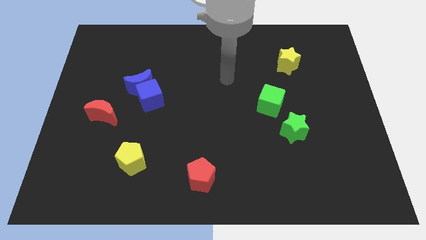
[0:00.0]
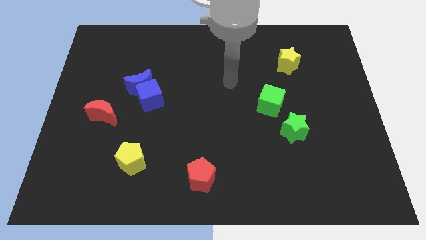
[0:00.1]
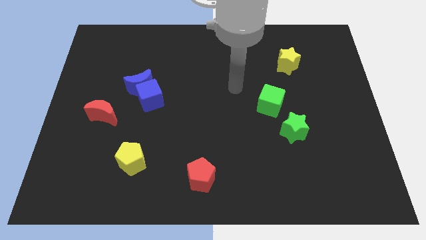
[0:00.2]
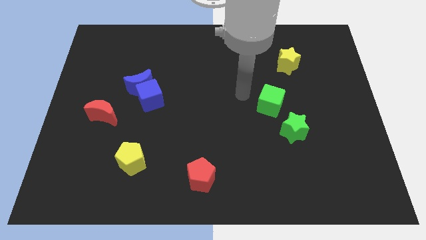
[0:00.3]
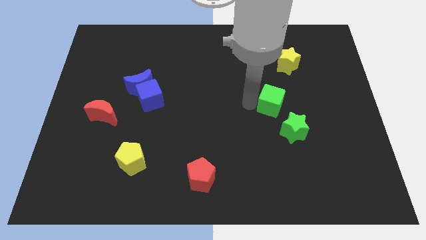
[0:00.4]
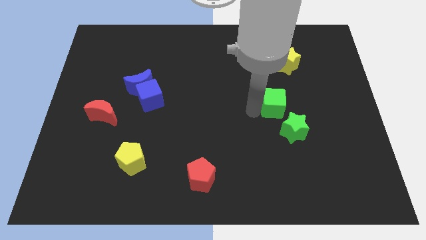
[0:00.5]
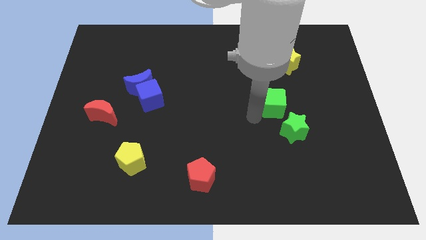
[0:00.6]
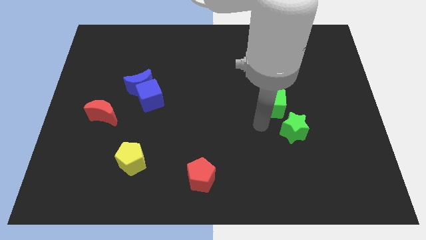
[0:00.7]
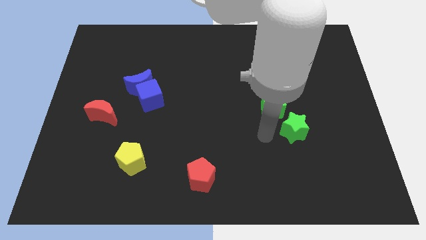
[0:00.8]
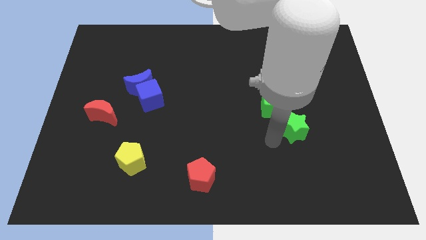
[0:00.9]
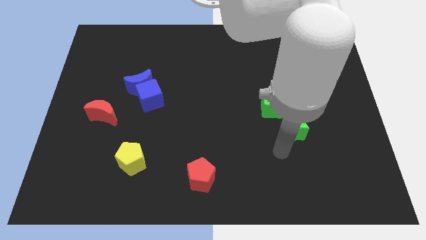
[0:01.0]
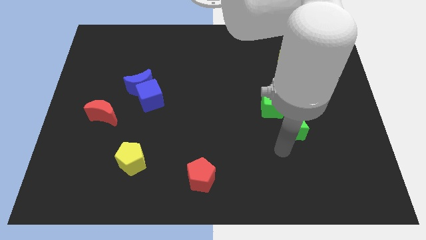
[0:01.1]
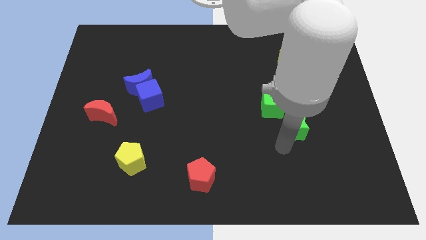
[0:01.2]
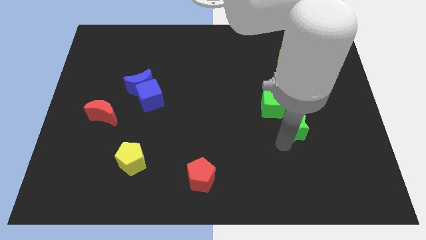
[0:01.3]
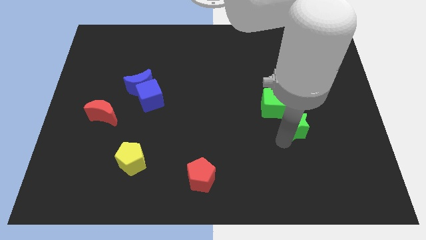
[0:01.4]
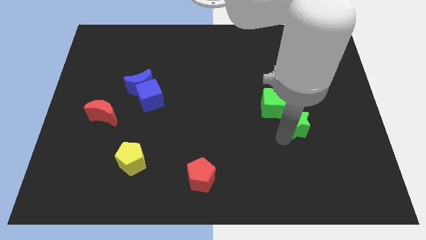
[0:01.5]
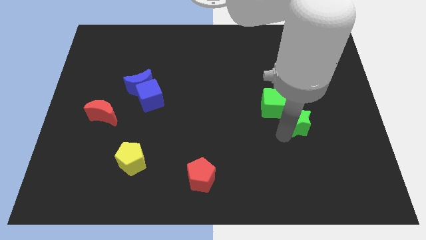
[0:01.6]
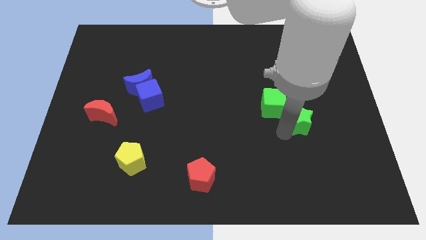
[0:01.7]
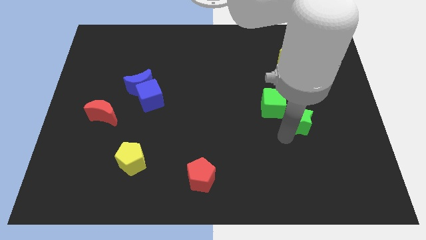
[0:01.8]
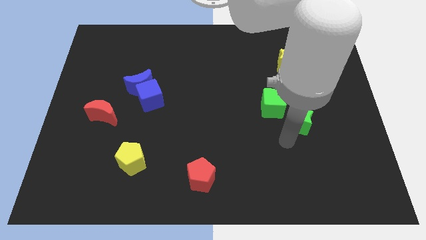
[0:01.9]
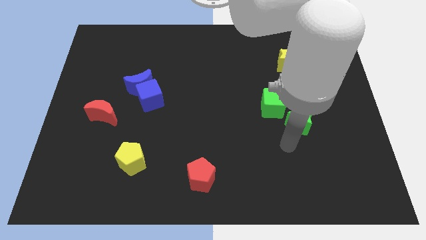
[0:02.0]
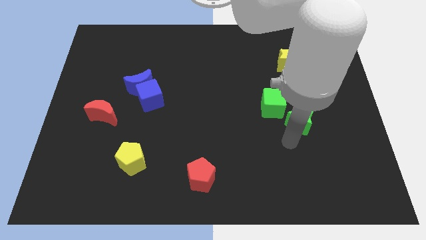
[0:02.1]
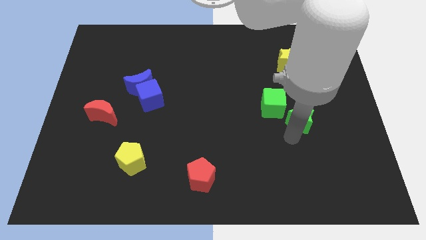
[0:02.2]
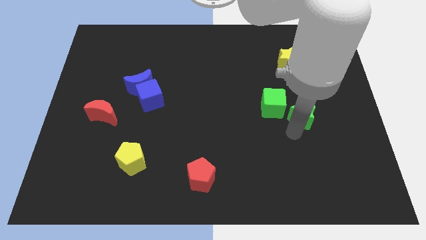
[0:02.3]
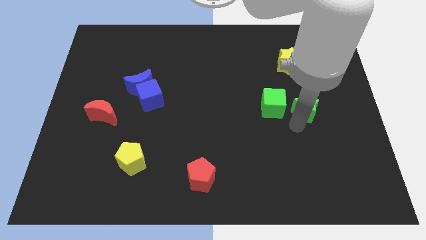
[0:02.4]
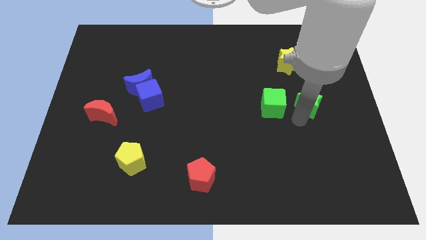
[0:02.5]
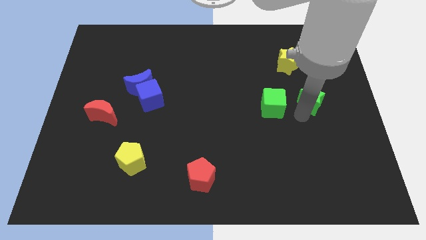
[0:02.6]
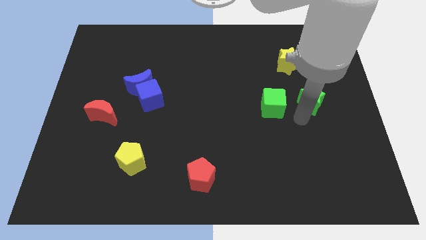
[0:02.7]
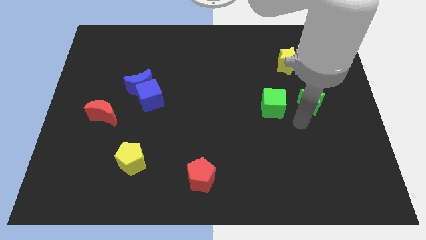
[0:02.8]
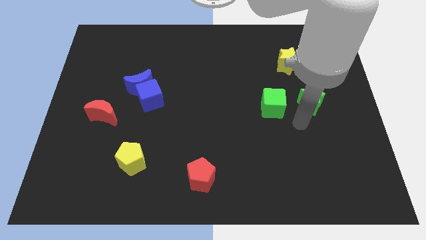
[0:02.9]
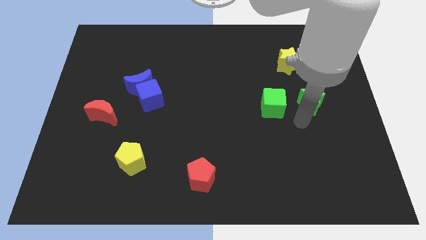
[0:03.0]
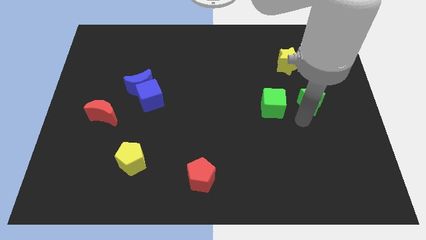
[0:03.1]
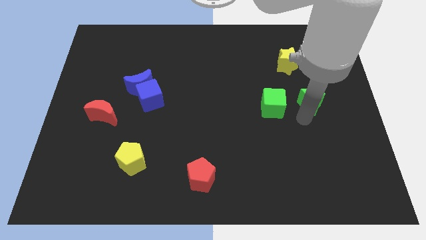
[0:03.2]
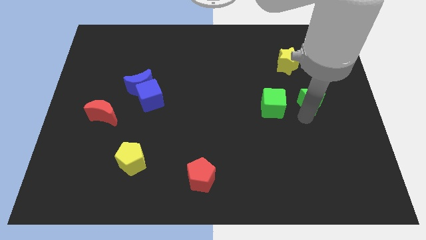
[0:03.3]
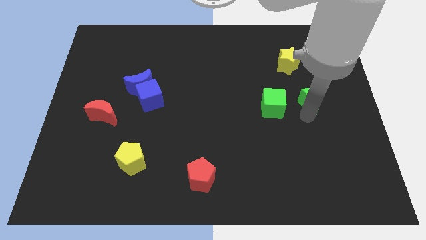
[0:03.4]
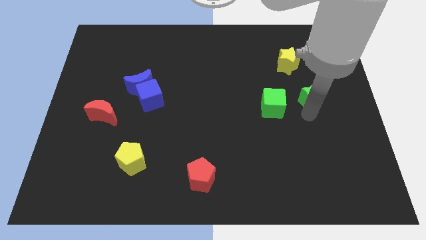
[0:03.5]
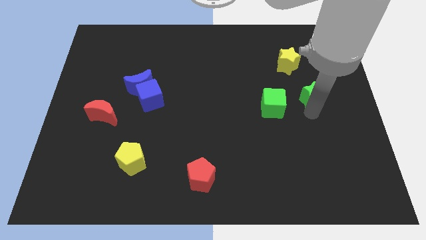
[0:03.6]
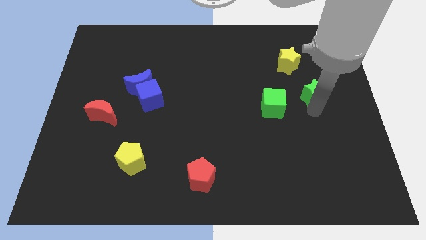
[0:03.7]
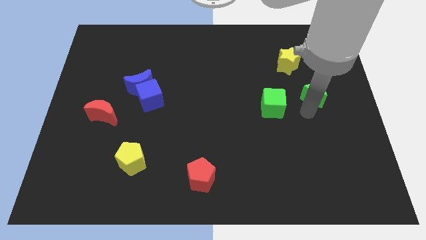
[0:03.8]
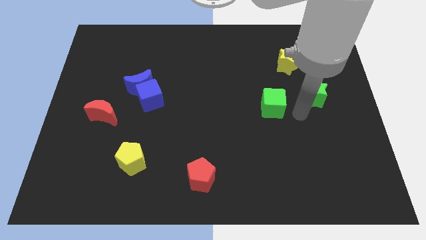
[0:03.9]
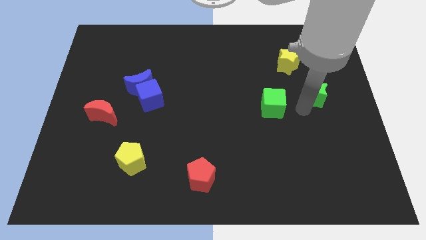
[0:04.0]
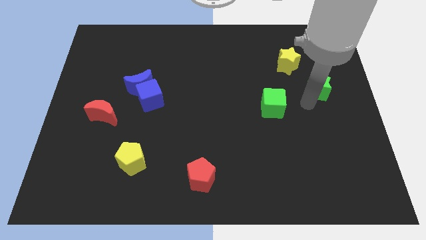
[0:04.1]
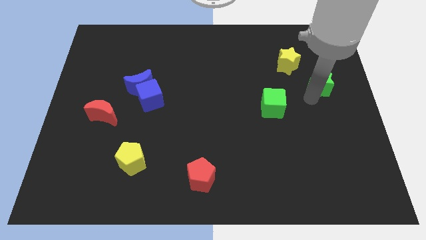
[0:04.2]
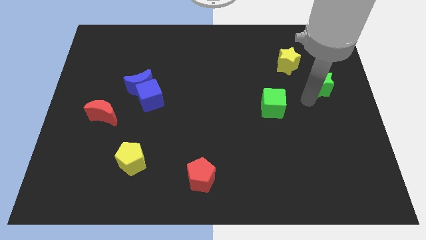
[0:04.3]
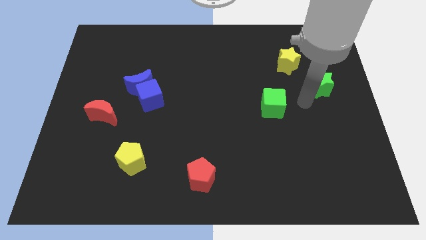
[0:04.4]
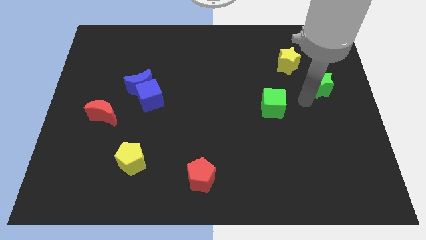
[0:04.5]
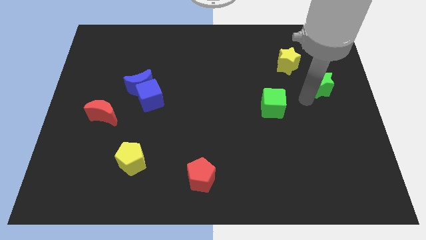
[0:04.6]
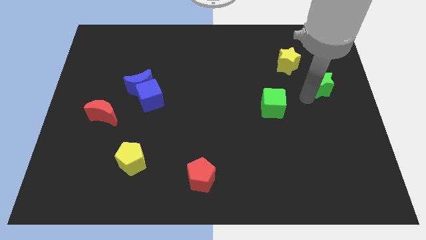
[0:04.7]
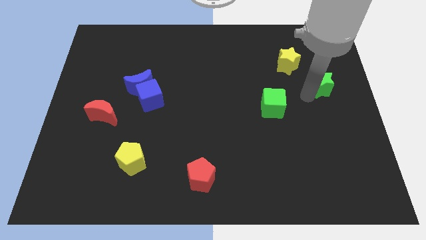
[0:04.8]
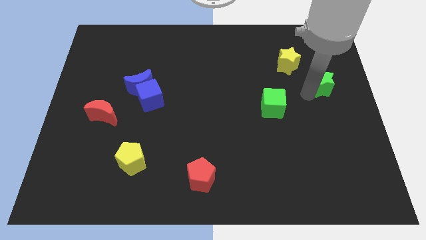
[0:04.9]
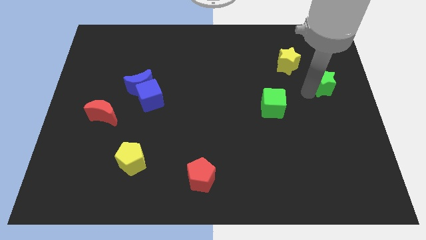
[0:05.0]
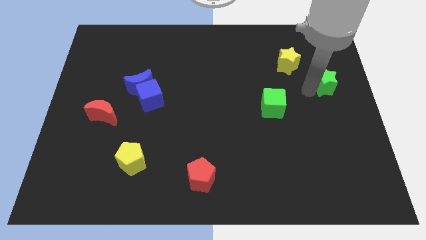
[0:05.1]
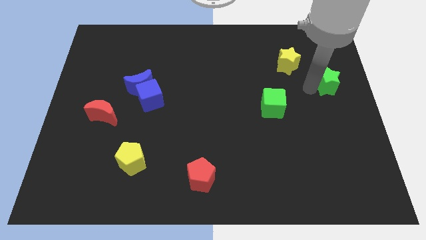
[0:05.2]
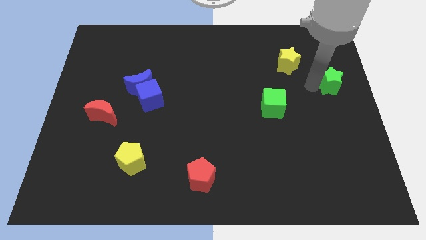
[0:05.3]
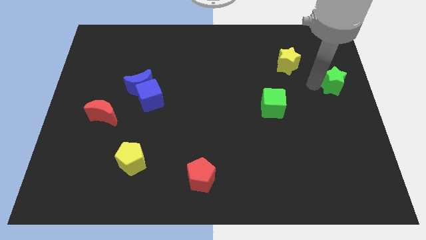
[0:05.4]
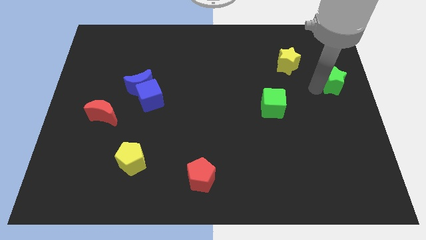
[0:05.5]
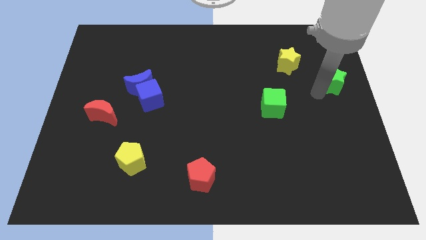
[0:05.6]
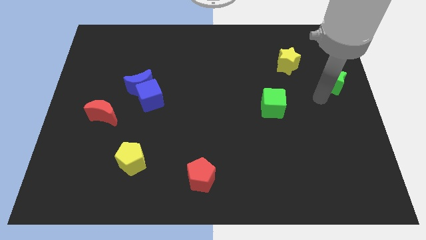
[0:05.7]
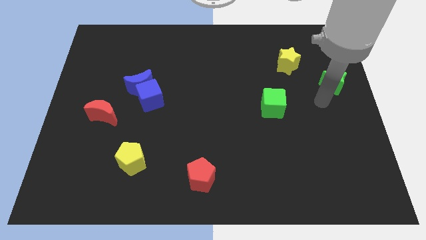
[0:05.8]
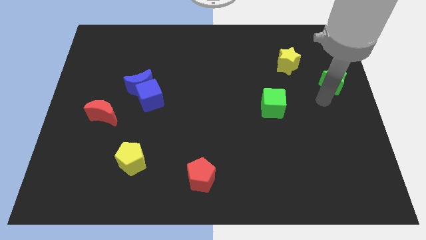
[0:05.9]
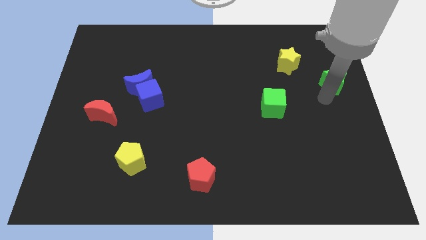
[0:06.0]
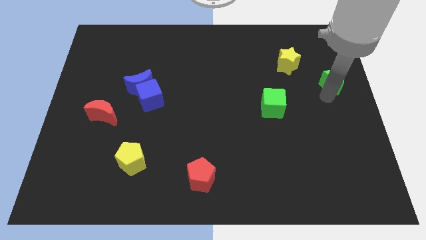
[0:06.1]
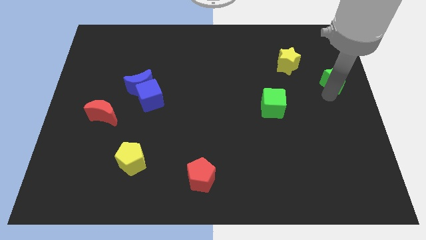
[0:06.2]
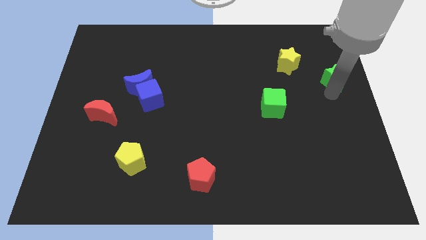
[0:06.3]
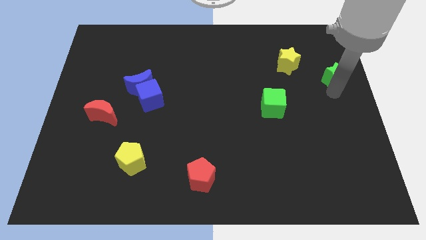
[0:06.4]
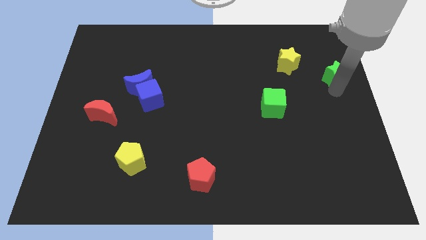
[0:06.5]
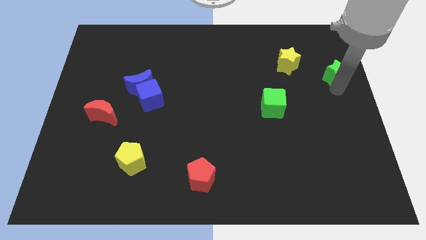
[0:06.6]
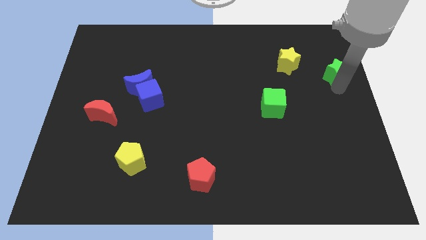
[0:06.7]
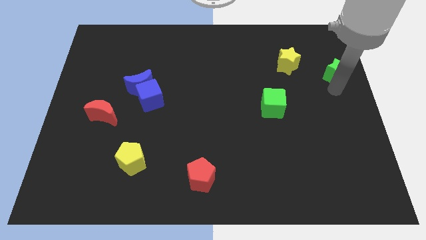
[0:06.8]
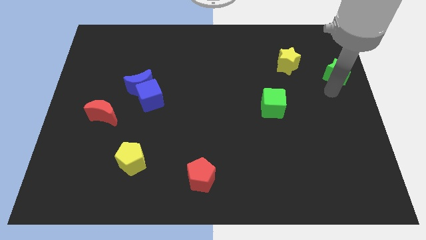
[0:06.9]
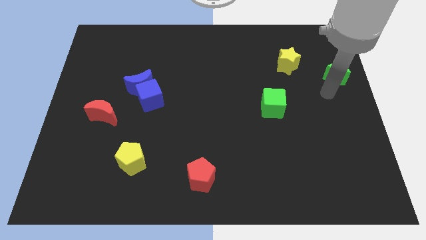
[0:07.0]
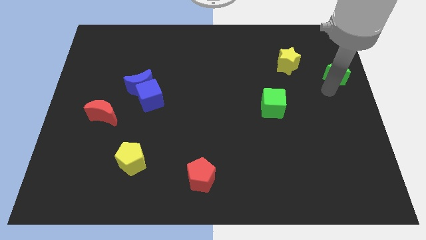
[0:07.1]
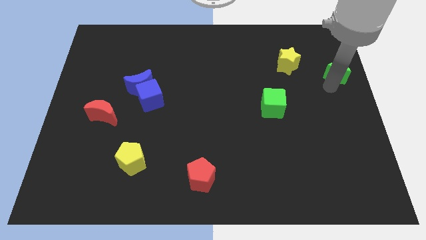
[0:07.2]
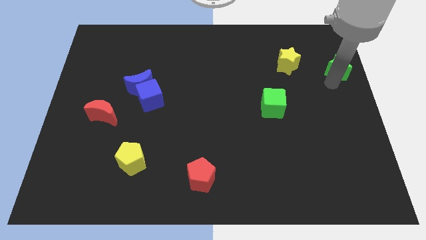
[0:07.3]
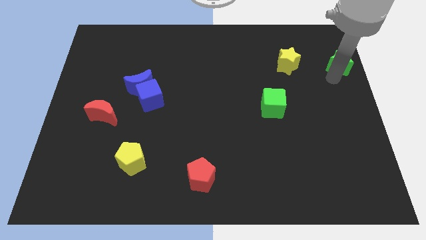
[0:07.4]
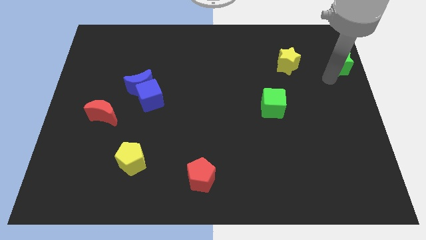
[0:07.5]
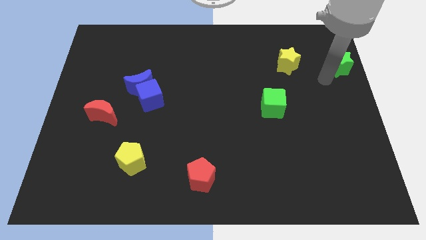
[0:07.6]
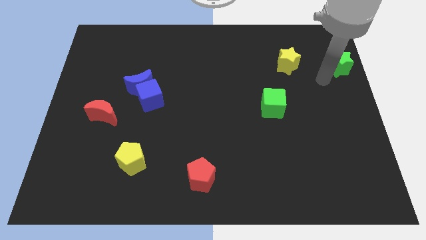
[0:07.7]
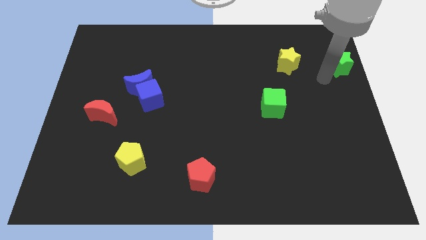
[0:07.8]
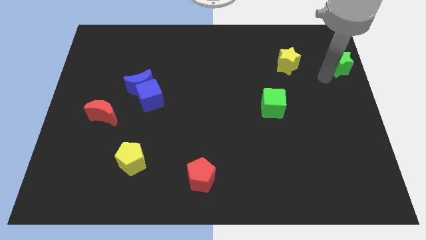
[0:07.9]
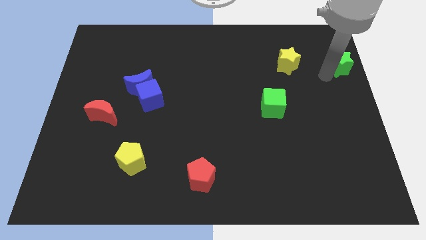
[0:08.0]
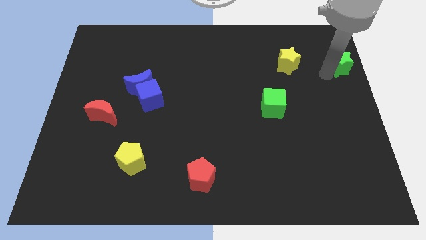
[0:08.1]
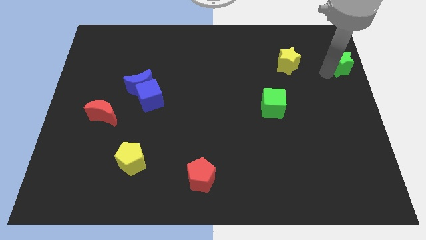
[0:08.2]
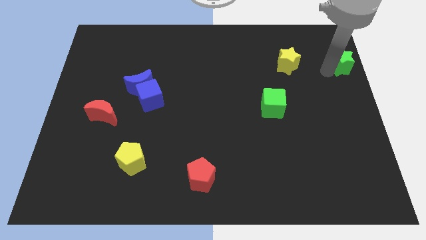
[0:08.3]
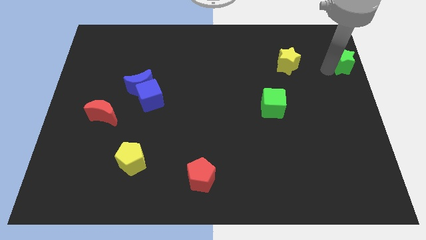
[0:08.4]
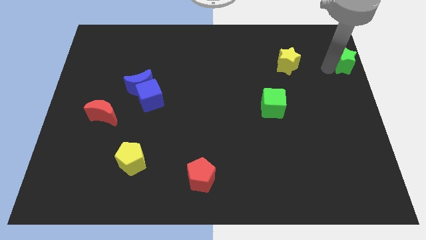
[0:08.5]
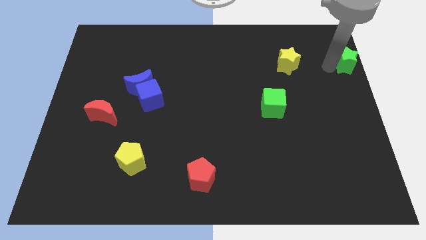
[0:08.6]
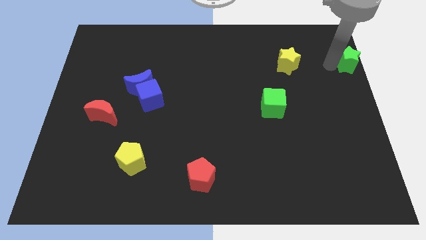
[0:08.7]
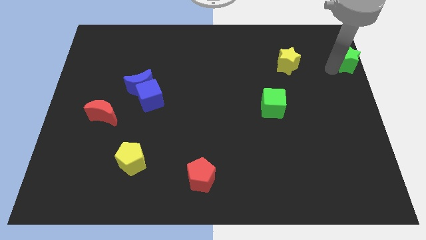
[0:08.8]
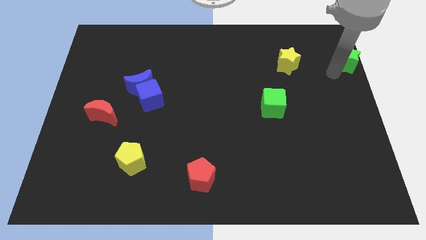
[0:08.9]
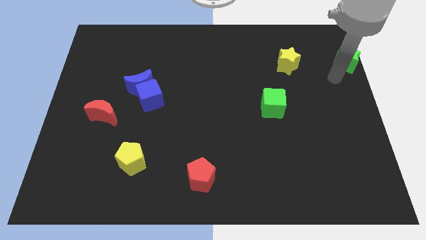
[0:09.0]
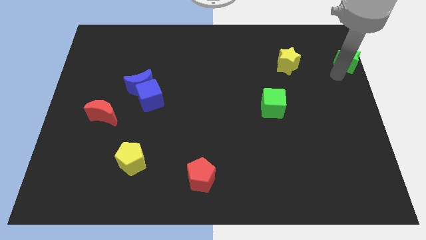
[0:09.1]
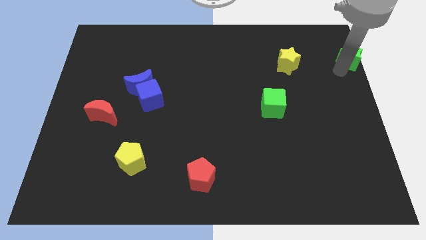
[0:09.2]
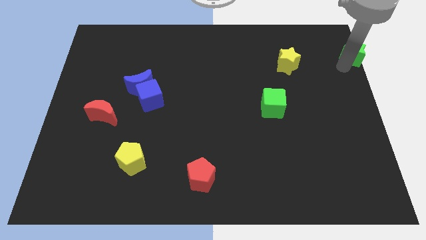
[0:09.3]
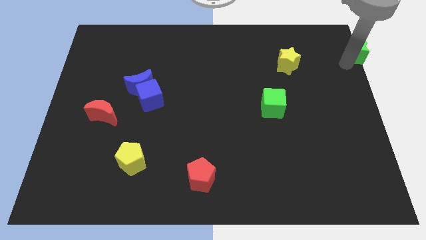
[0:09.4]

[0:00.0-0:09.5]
slide the green star to the top right of the board
